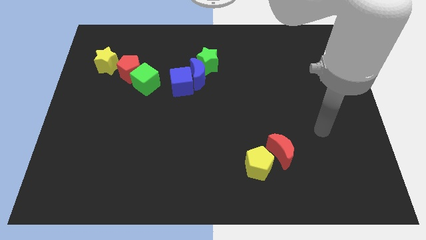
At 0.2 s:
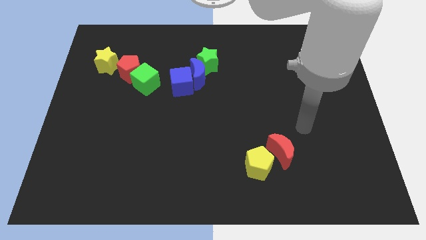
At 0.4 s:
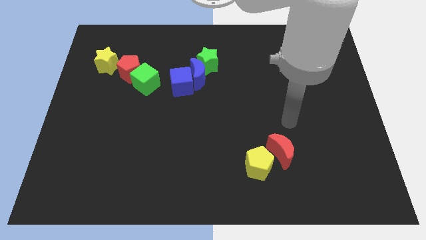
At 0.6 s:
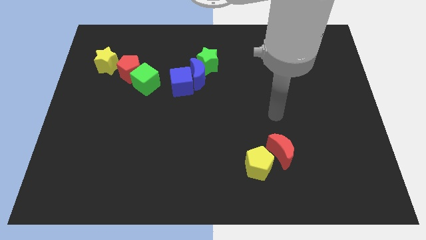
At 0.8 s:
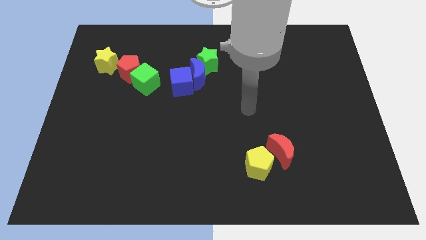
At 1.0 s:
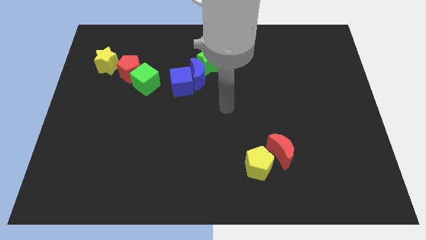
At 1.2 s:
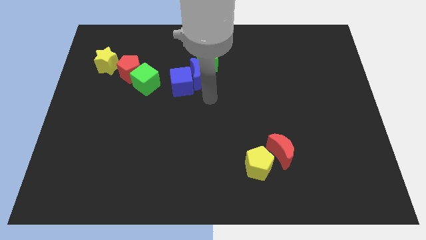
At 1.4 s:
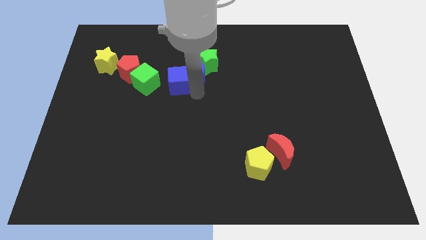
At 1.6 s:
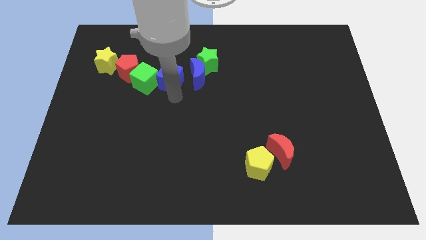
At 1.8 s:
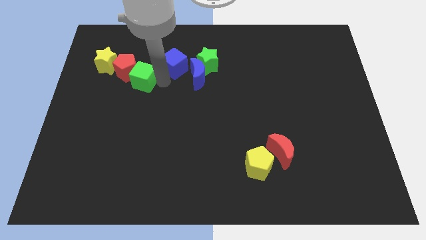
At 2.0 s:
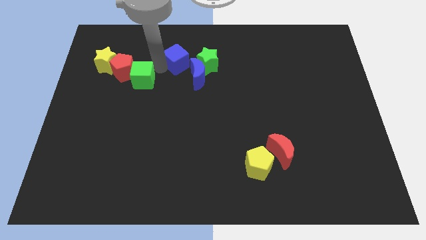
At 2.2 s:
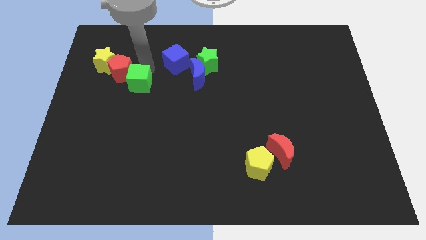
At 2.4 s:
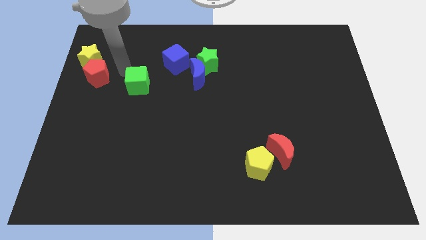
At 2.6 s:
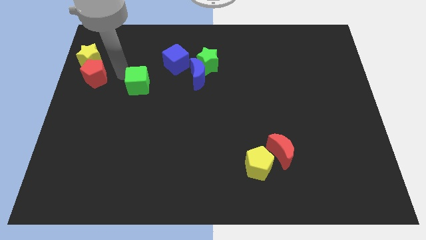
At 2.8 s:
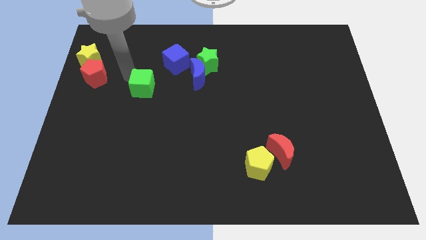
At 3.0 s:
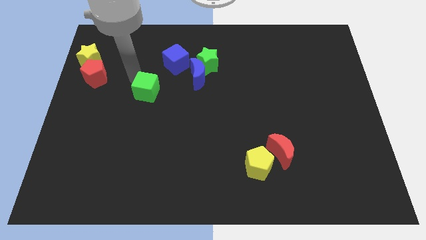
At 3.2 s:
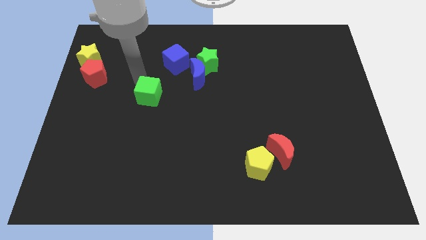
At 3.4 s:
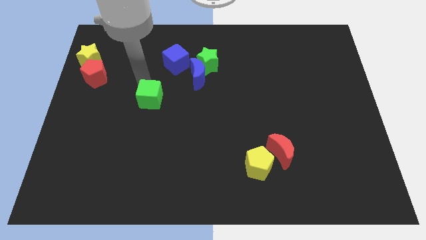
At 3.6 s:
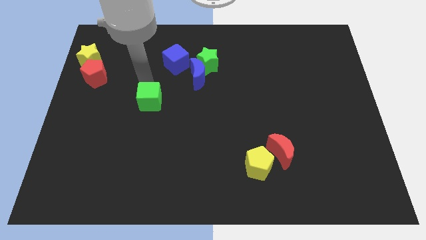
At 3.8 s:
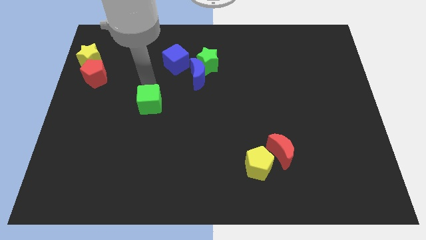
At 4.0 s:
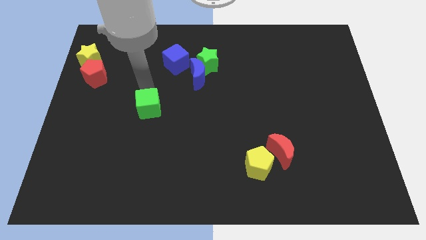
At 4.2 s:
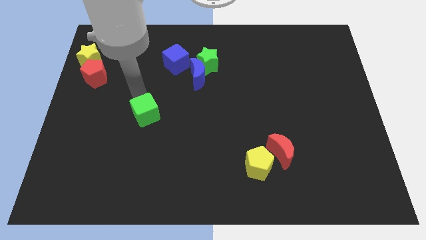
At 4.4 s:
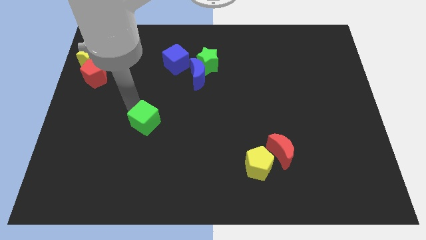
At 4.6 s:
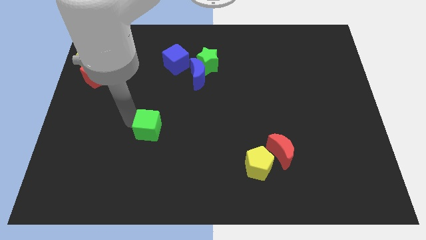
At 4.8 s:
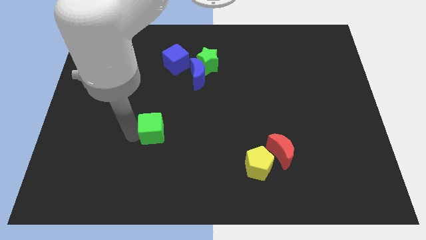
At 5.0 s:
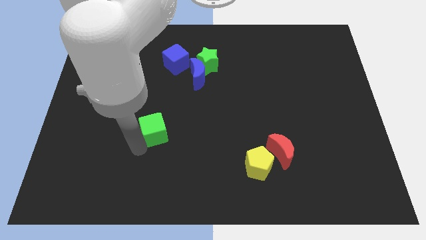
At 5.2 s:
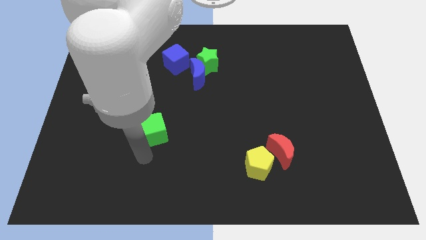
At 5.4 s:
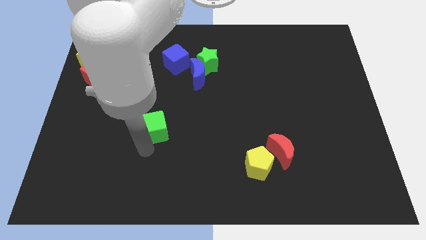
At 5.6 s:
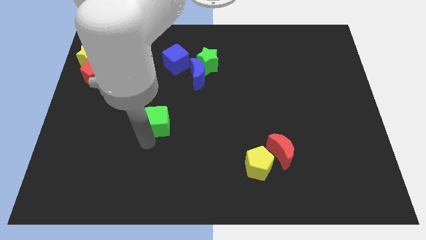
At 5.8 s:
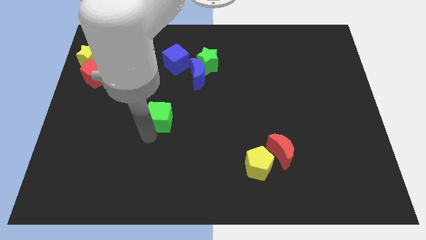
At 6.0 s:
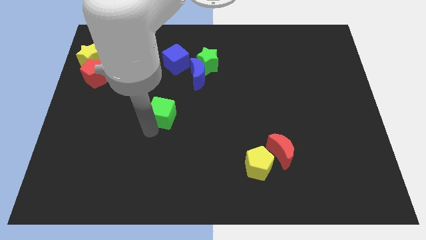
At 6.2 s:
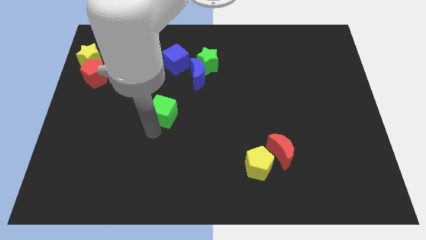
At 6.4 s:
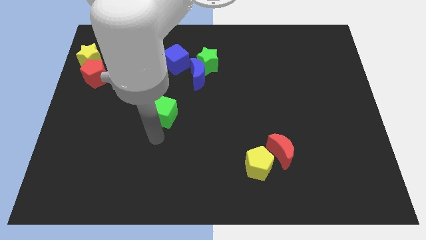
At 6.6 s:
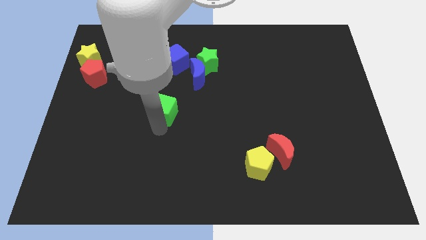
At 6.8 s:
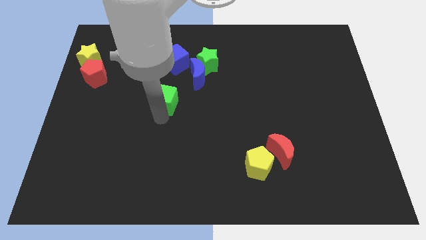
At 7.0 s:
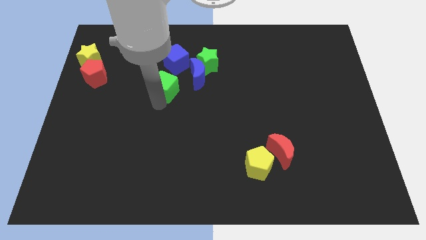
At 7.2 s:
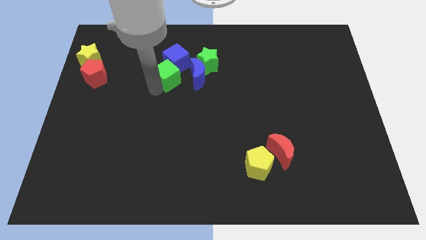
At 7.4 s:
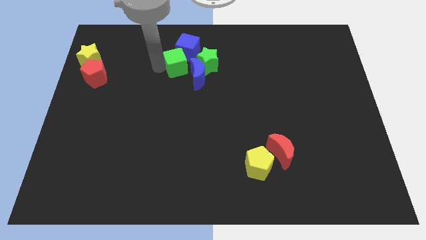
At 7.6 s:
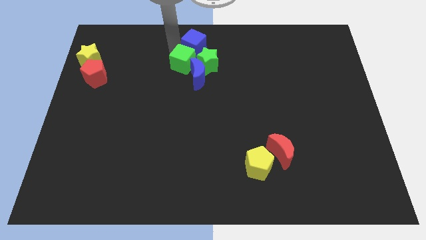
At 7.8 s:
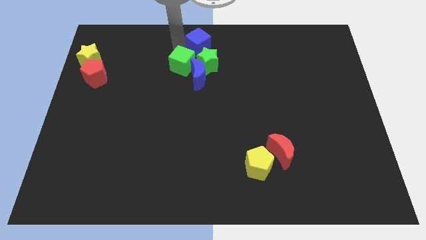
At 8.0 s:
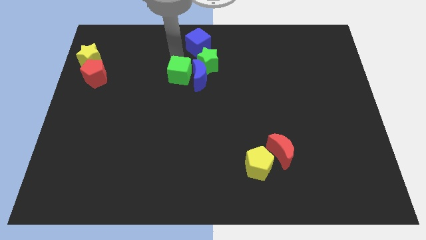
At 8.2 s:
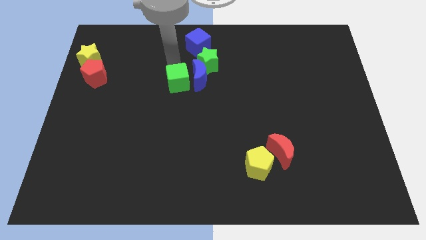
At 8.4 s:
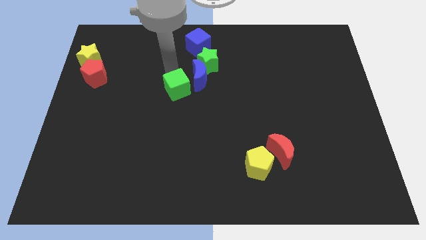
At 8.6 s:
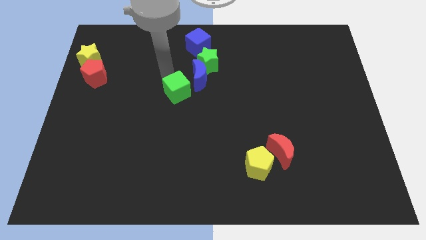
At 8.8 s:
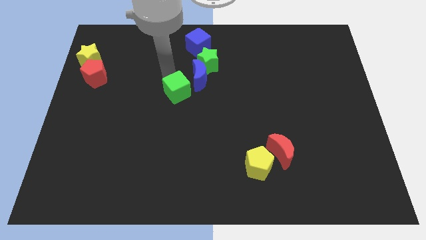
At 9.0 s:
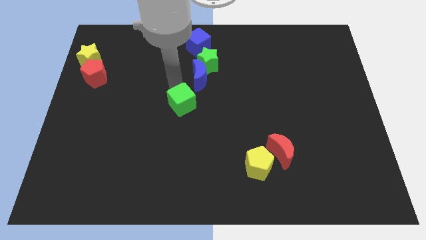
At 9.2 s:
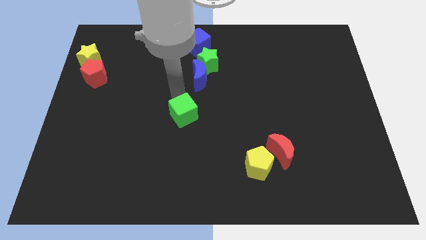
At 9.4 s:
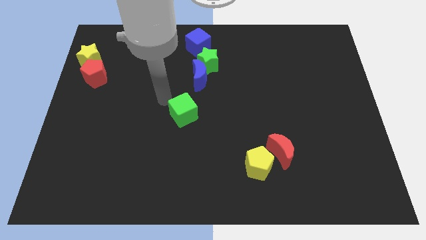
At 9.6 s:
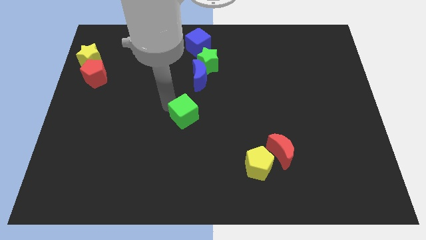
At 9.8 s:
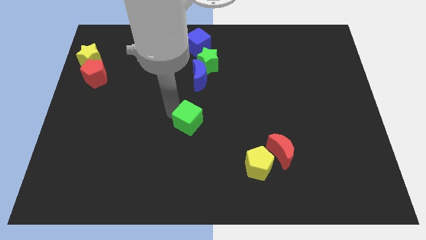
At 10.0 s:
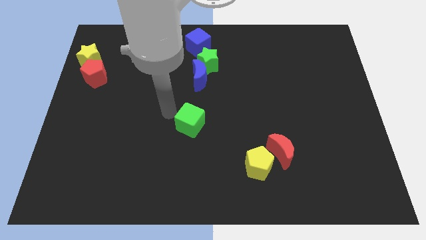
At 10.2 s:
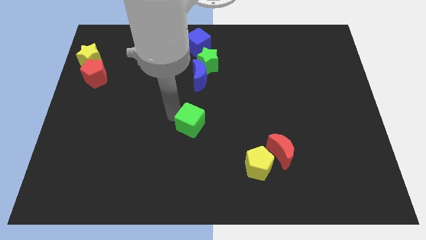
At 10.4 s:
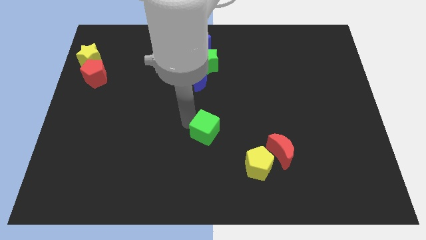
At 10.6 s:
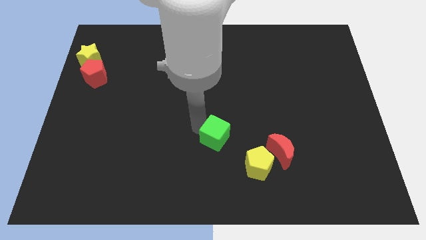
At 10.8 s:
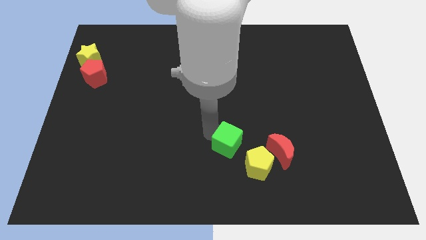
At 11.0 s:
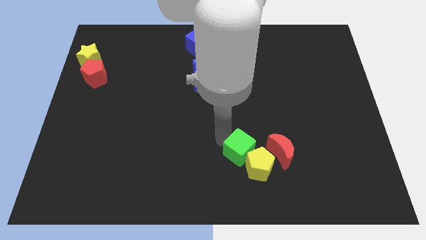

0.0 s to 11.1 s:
push the green cube next to the yellow pentagon

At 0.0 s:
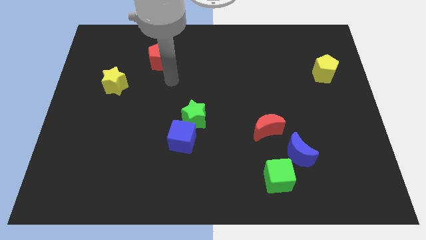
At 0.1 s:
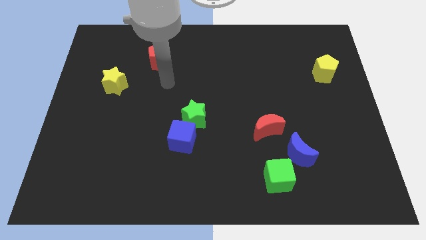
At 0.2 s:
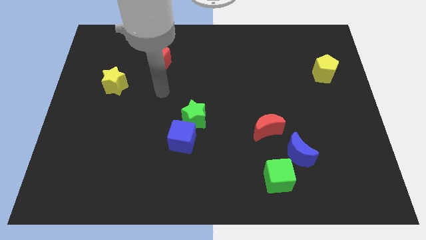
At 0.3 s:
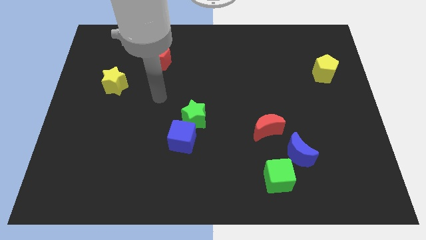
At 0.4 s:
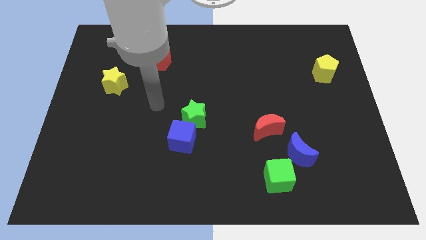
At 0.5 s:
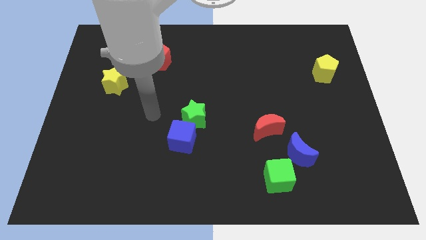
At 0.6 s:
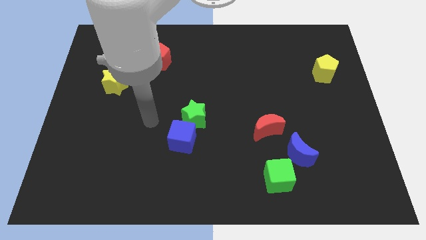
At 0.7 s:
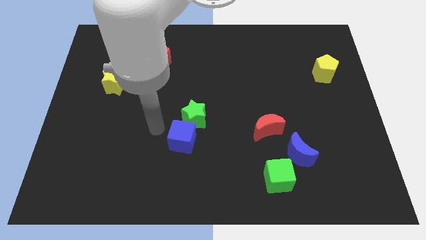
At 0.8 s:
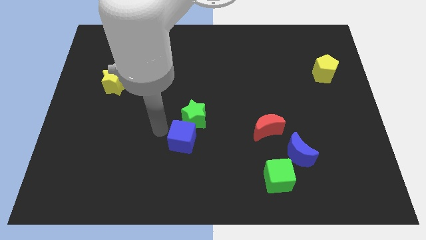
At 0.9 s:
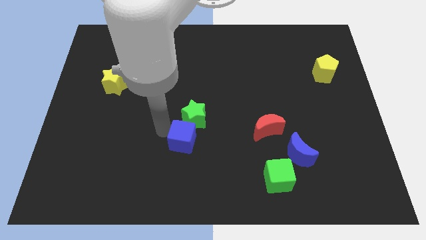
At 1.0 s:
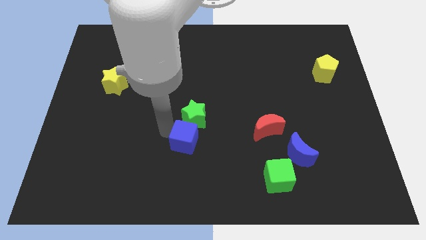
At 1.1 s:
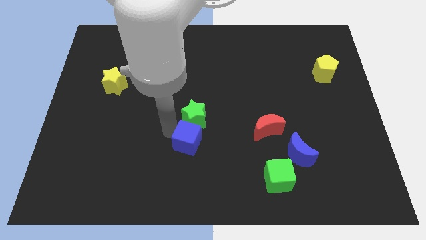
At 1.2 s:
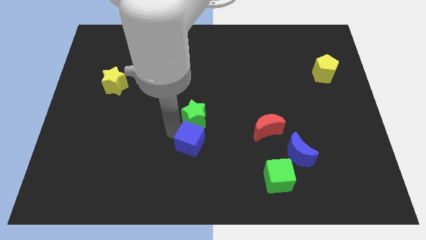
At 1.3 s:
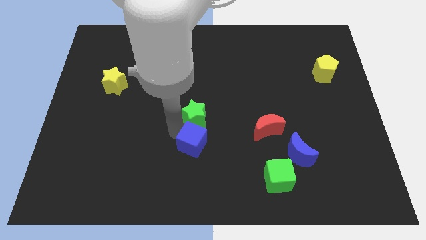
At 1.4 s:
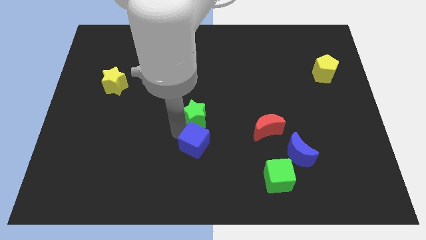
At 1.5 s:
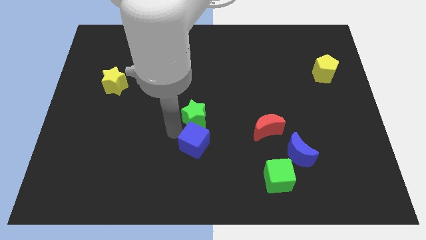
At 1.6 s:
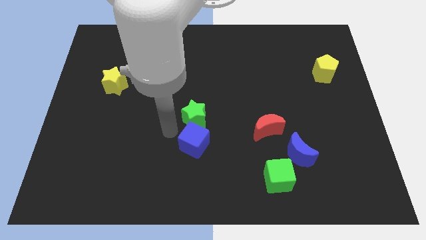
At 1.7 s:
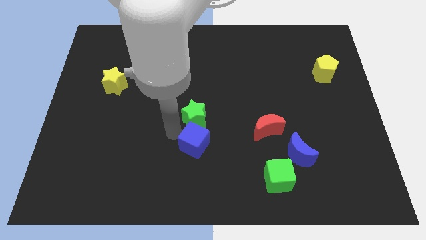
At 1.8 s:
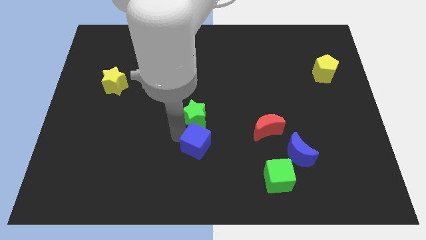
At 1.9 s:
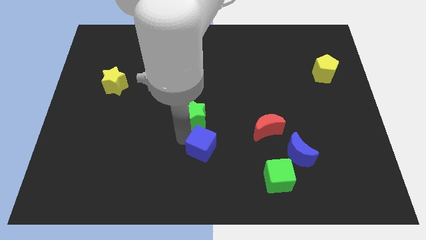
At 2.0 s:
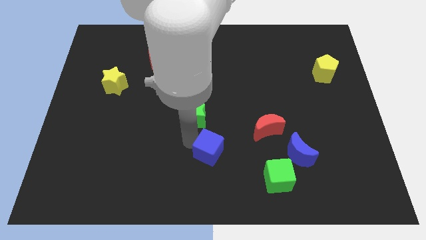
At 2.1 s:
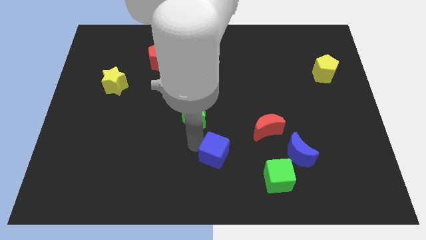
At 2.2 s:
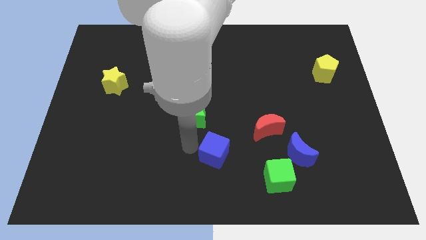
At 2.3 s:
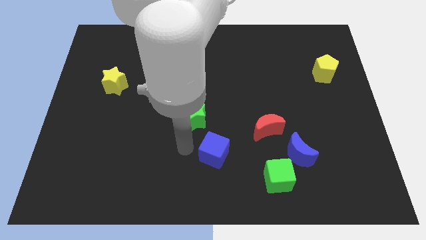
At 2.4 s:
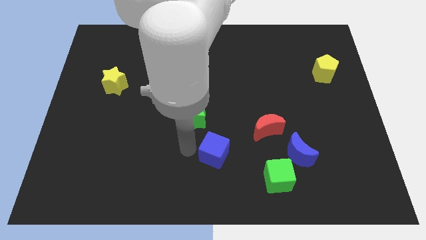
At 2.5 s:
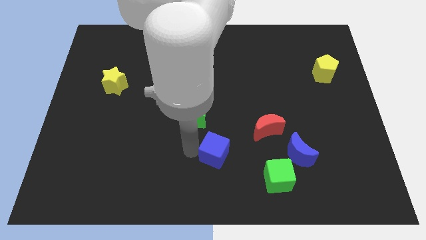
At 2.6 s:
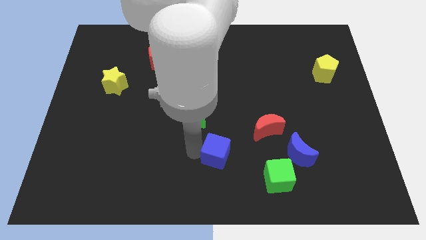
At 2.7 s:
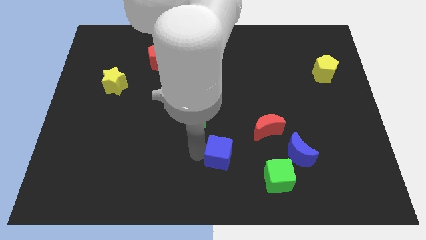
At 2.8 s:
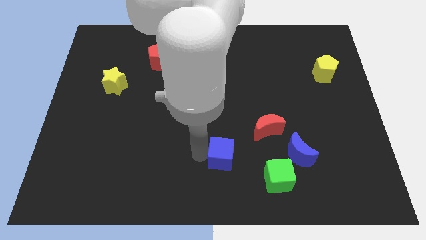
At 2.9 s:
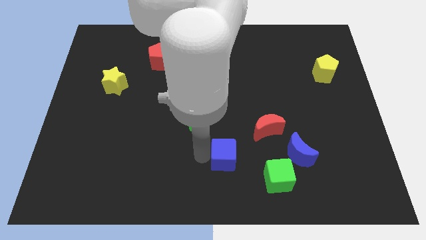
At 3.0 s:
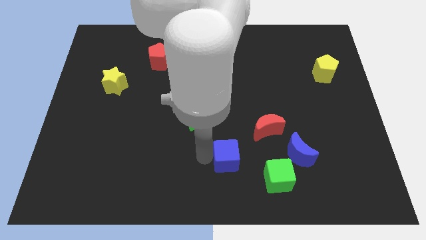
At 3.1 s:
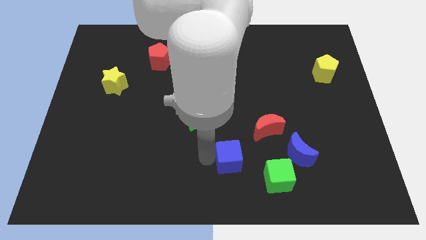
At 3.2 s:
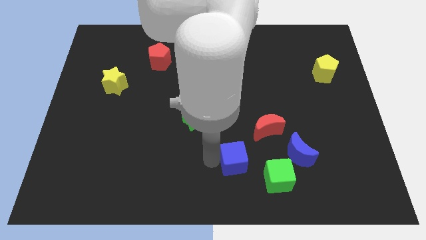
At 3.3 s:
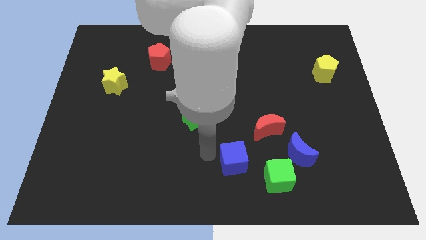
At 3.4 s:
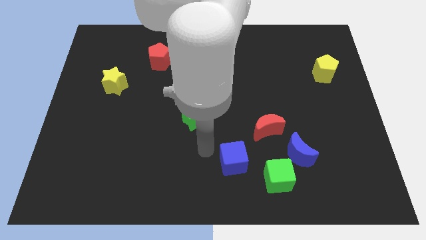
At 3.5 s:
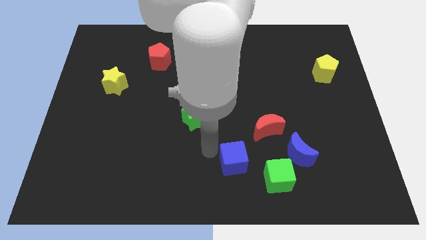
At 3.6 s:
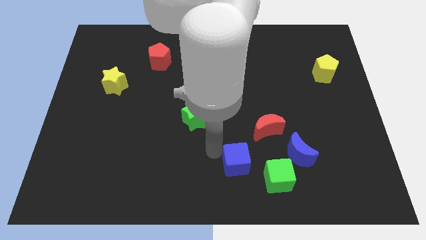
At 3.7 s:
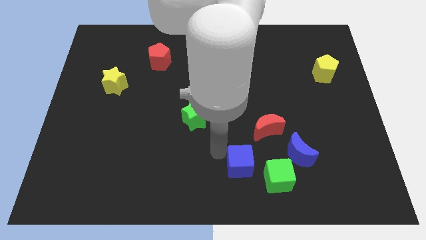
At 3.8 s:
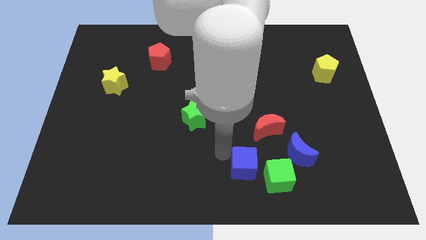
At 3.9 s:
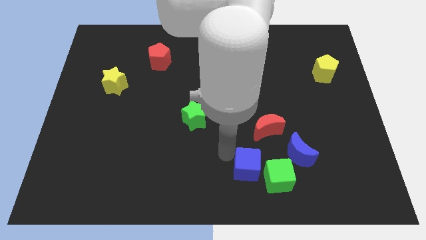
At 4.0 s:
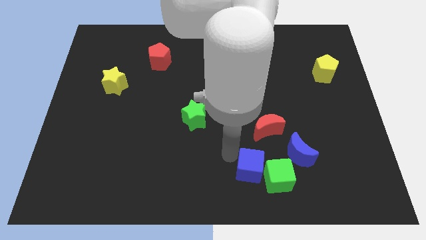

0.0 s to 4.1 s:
move the blue cube to the green cube
